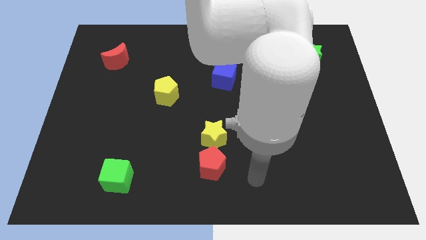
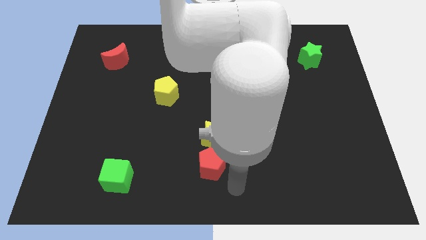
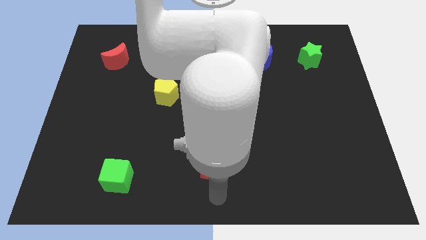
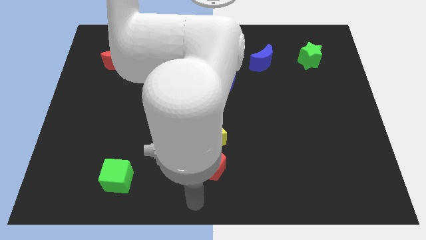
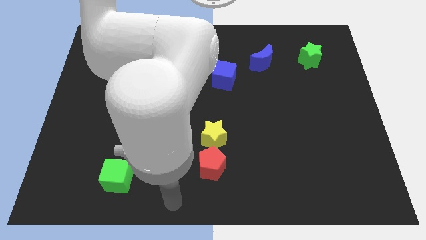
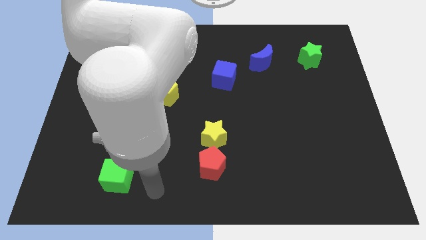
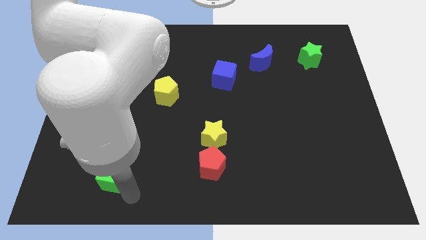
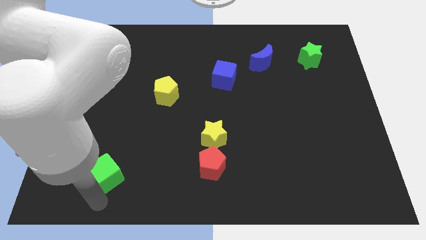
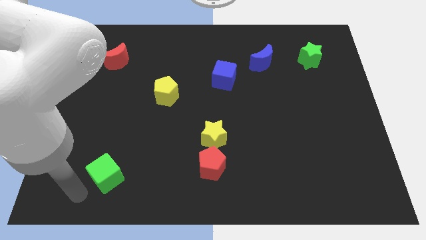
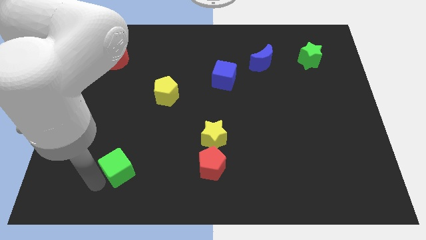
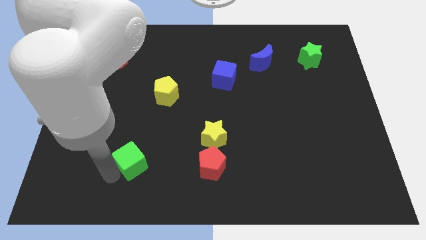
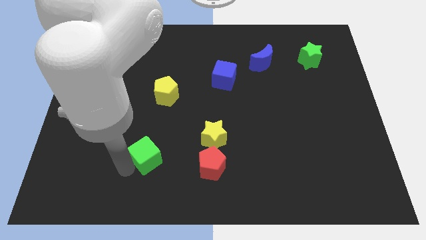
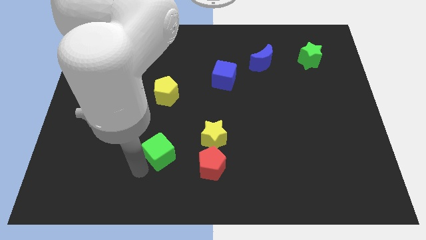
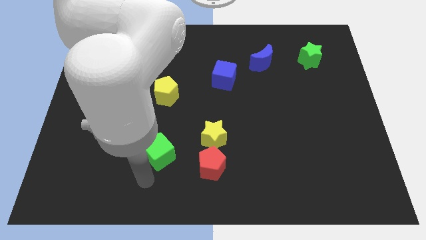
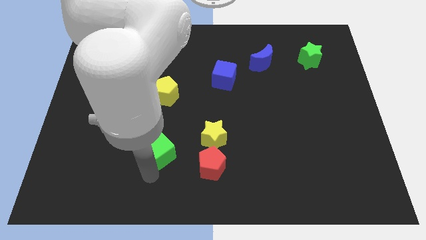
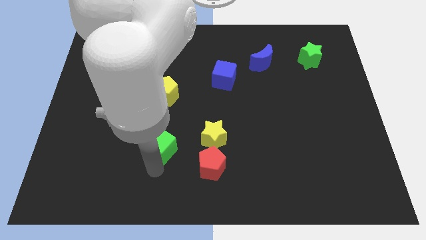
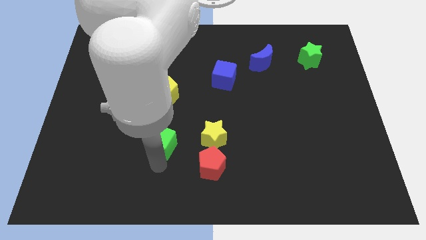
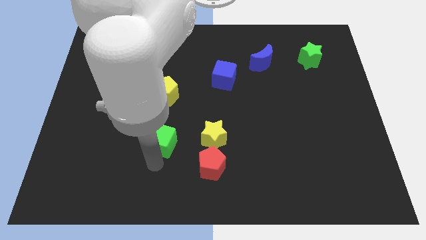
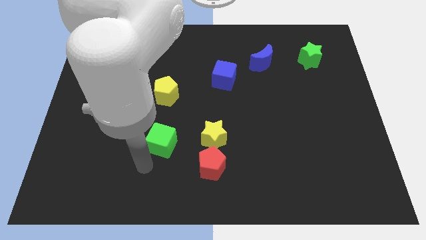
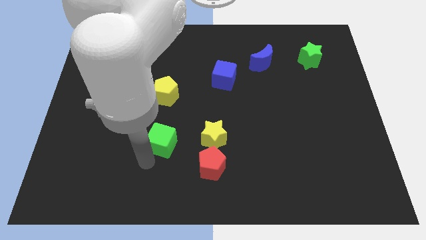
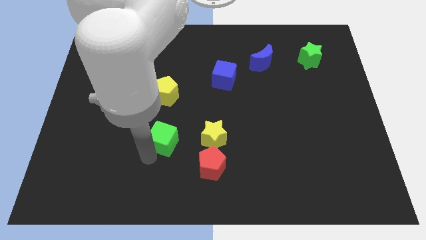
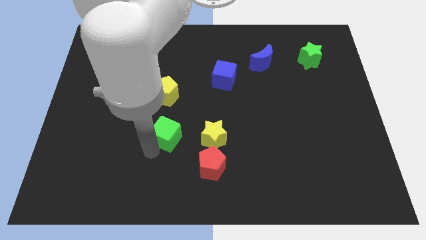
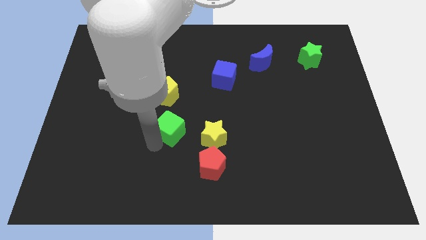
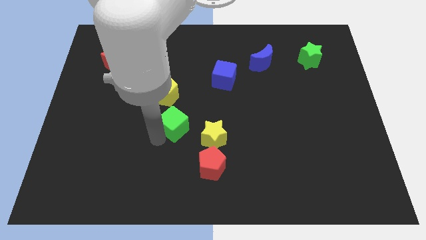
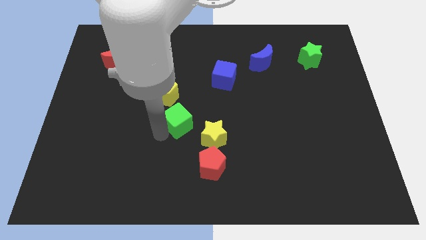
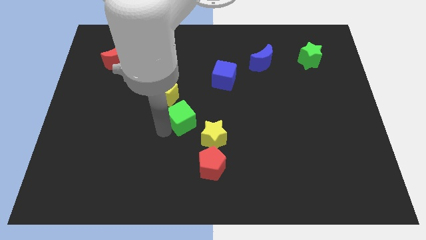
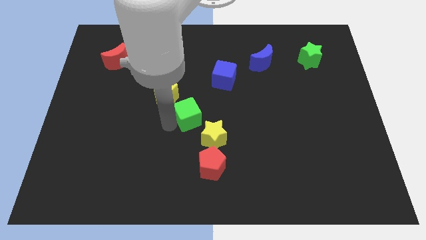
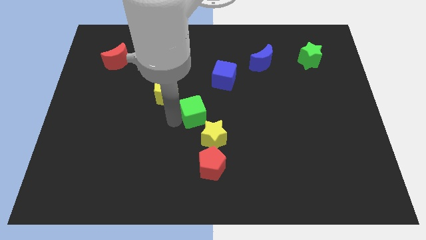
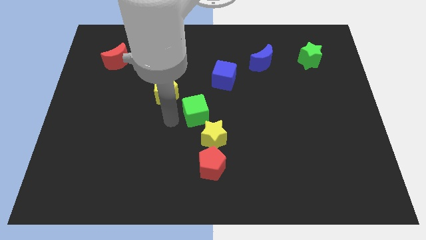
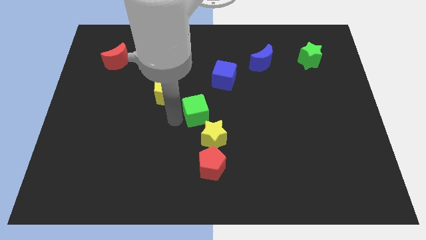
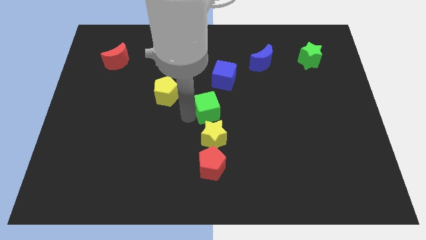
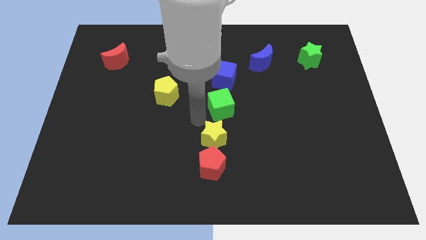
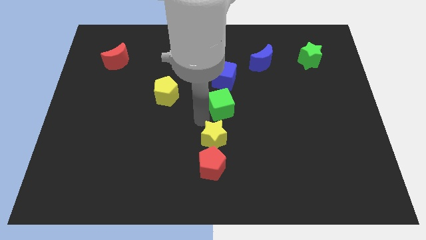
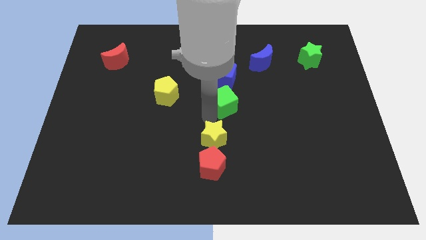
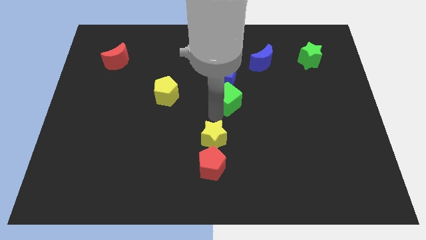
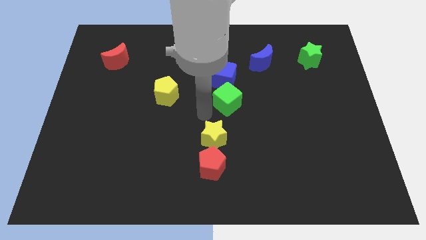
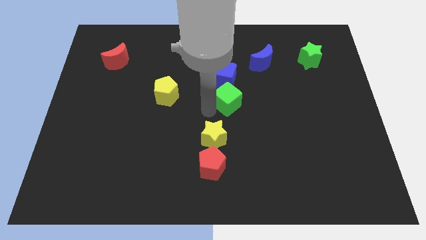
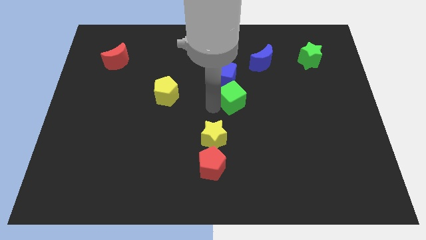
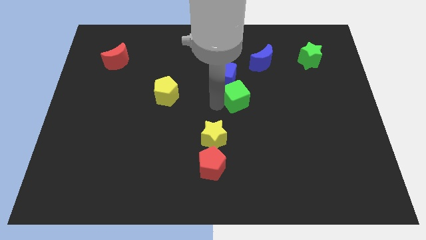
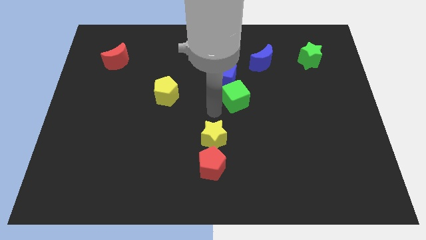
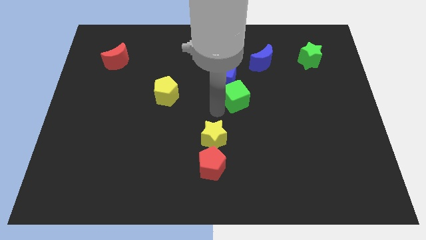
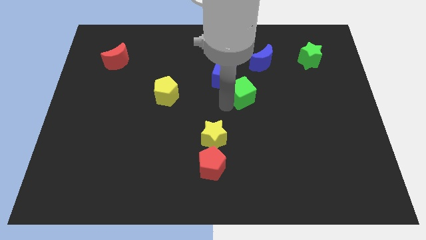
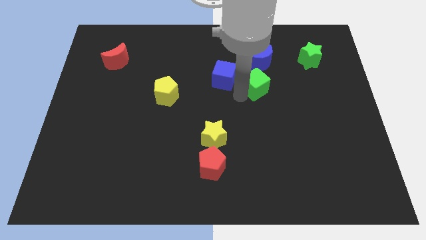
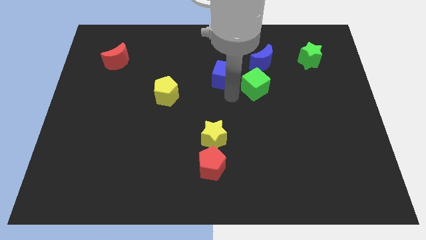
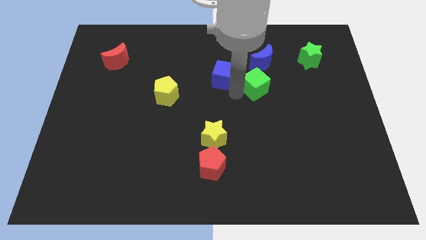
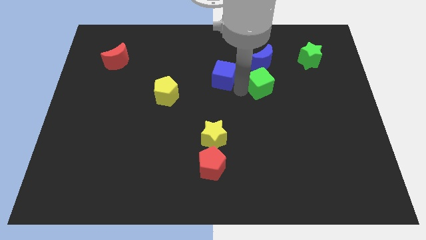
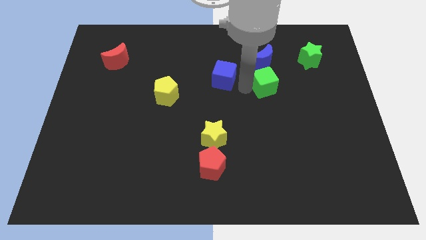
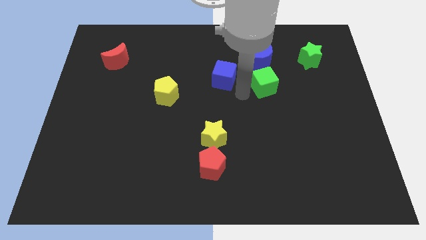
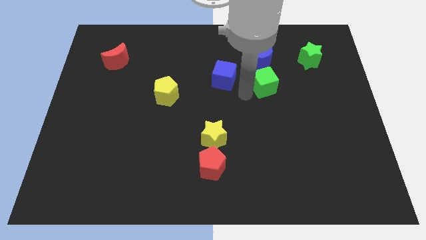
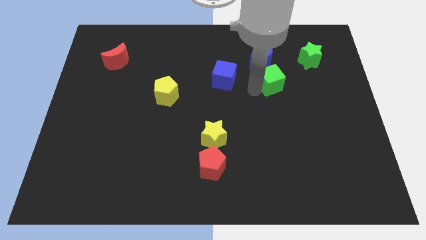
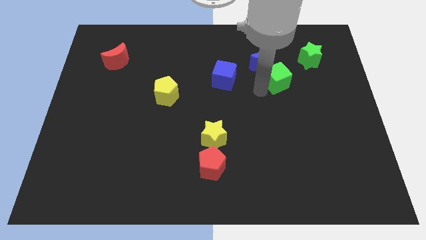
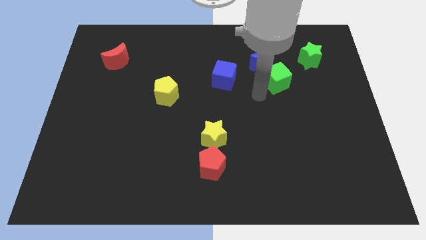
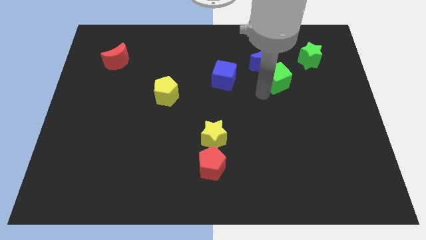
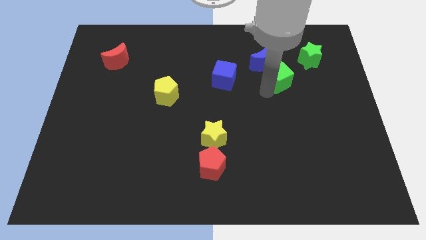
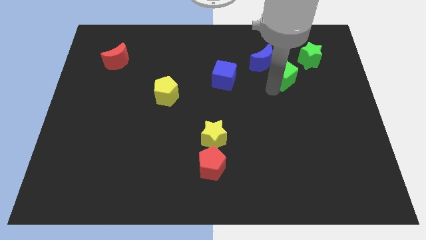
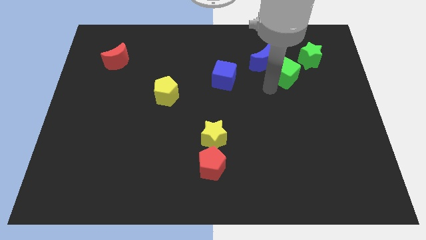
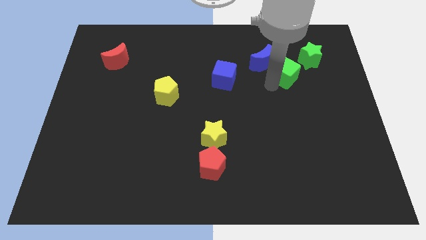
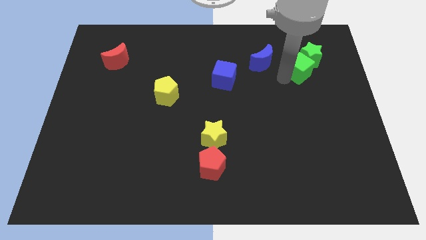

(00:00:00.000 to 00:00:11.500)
move the green cube close to the green star
